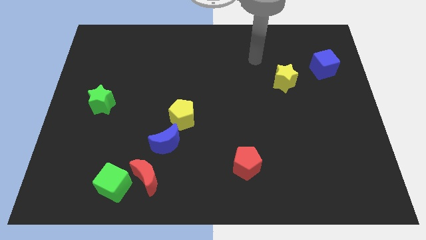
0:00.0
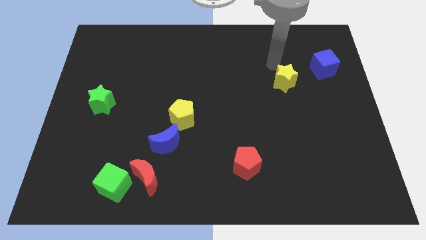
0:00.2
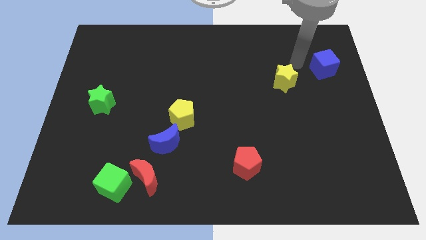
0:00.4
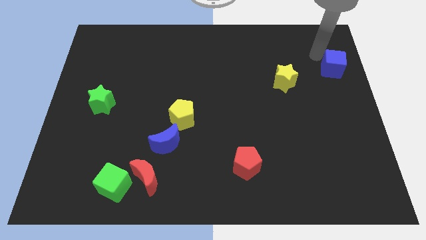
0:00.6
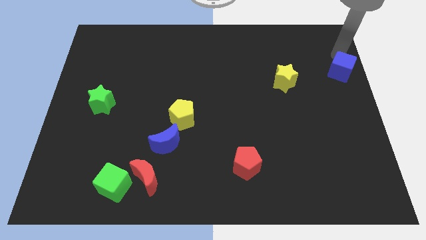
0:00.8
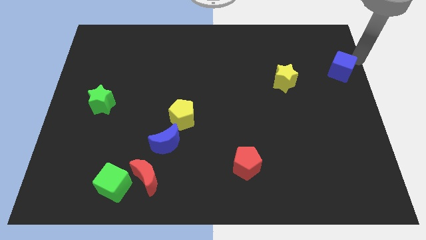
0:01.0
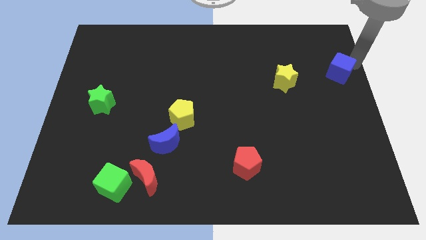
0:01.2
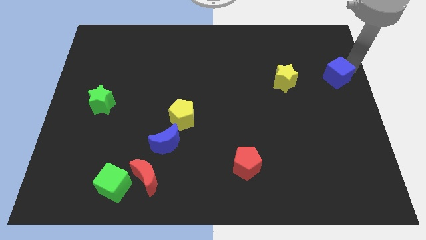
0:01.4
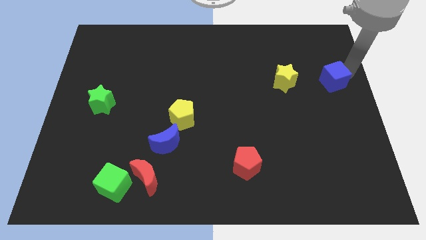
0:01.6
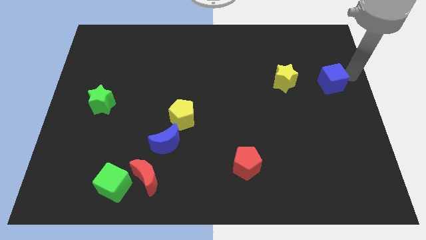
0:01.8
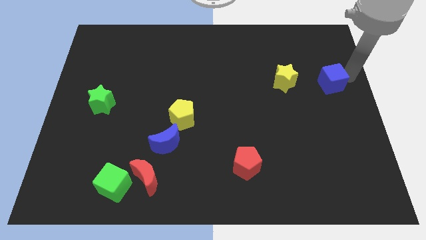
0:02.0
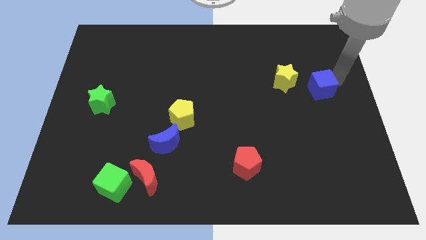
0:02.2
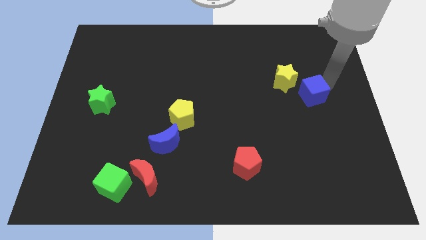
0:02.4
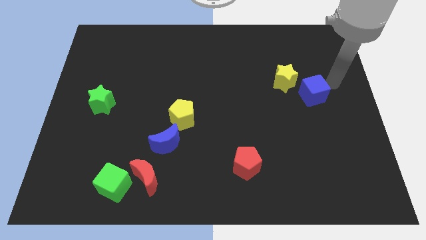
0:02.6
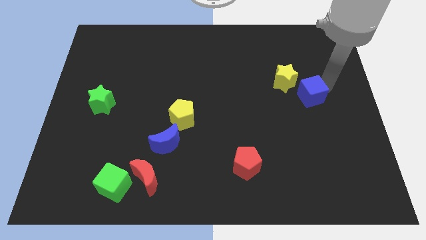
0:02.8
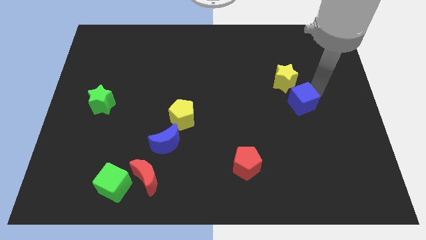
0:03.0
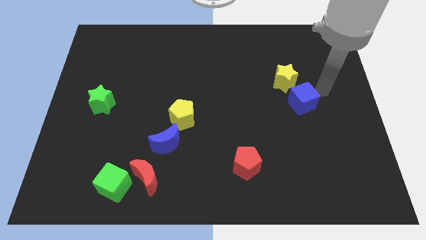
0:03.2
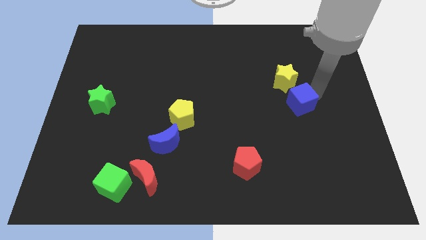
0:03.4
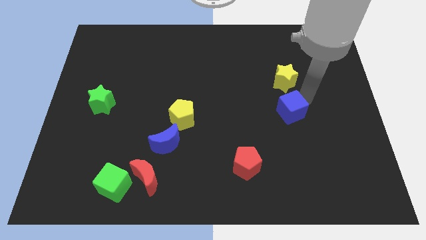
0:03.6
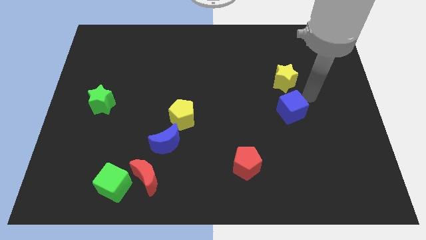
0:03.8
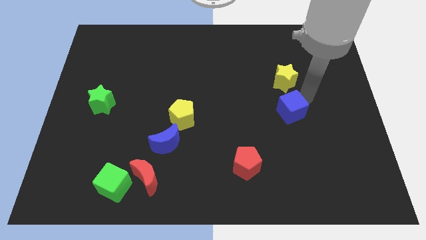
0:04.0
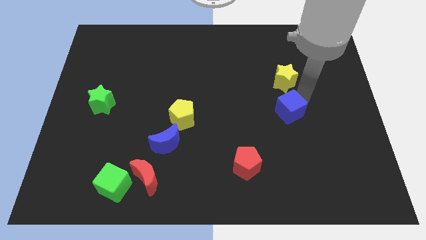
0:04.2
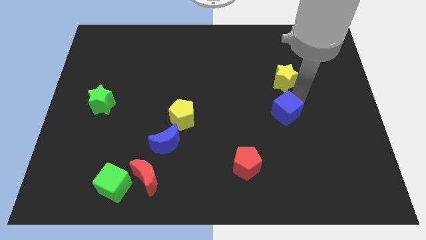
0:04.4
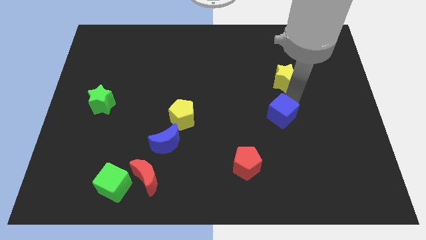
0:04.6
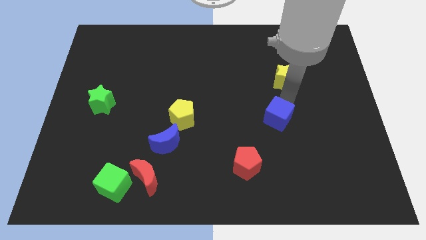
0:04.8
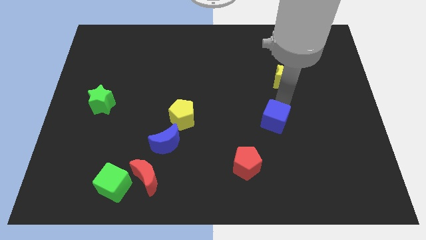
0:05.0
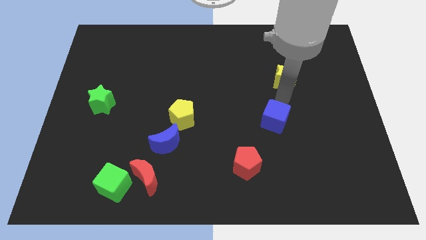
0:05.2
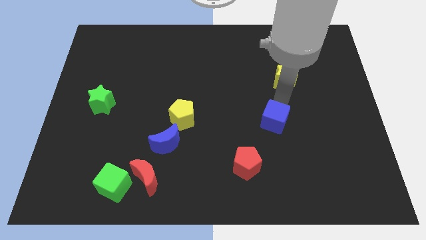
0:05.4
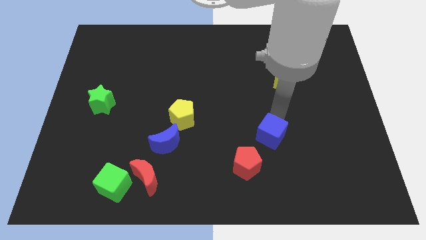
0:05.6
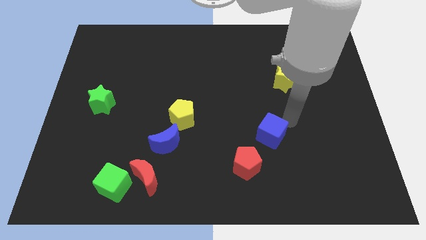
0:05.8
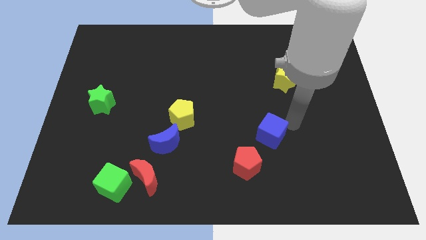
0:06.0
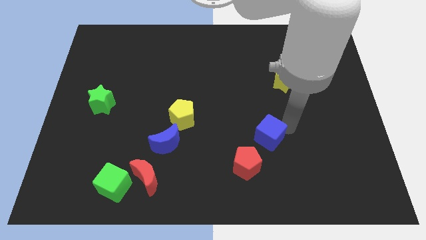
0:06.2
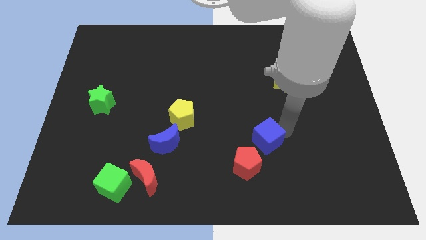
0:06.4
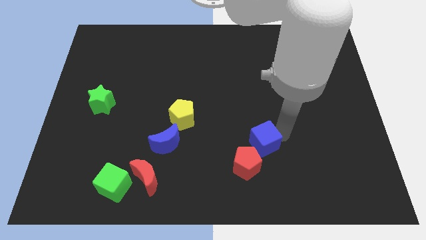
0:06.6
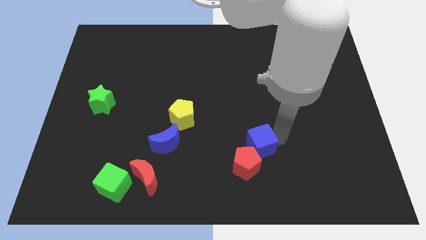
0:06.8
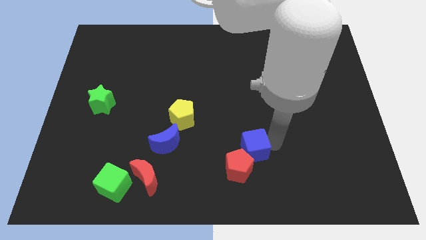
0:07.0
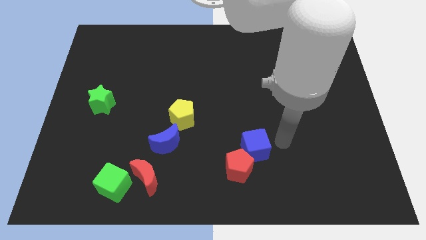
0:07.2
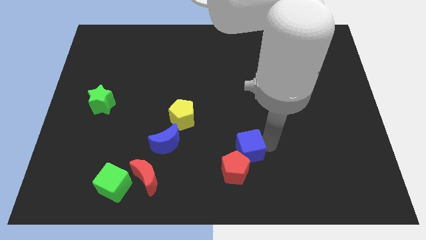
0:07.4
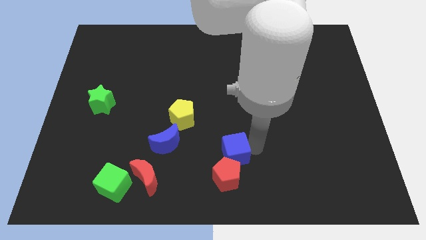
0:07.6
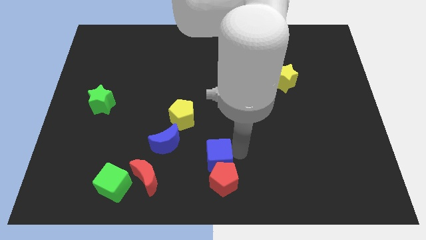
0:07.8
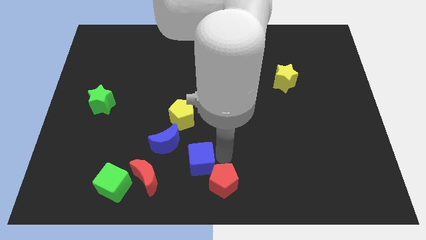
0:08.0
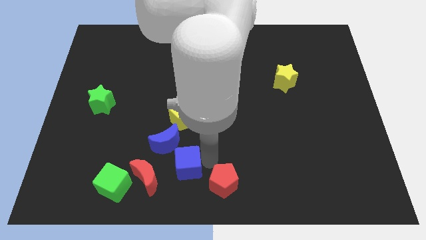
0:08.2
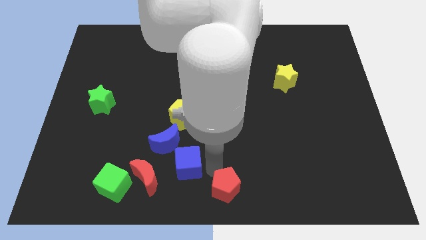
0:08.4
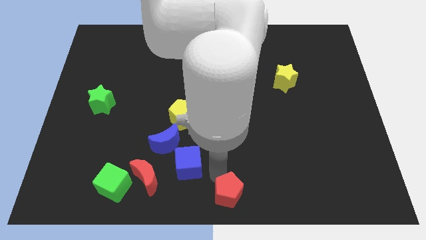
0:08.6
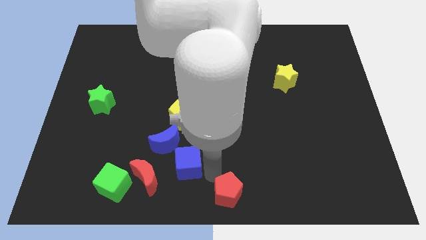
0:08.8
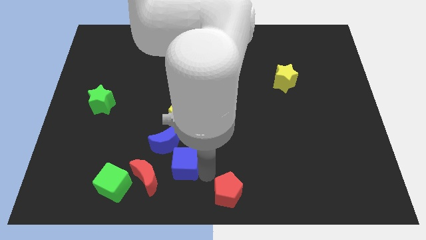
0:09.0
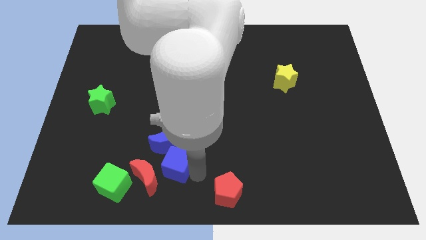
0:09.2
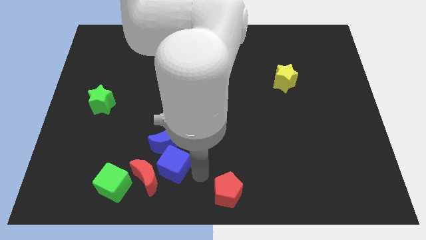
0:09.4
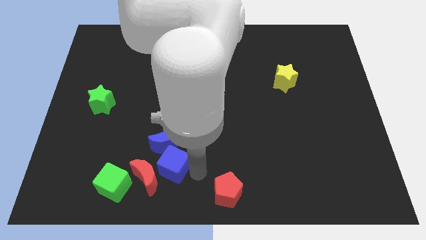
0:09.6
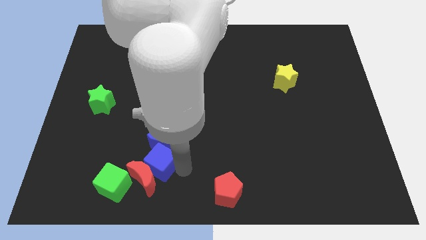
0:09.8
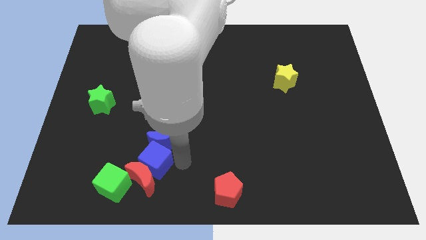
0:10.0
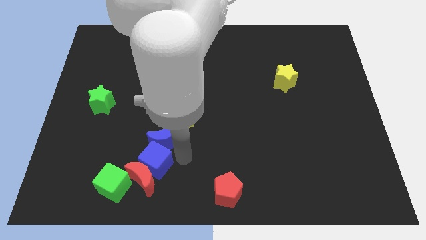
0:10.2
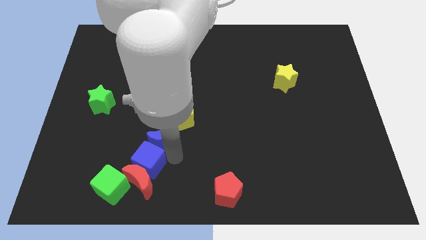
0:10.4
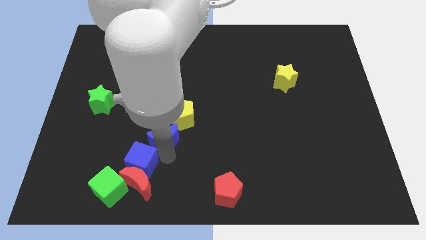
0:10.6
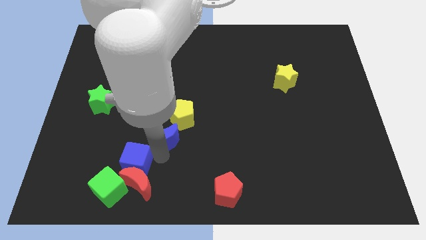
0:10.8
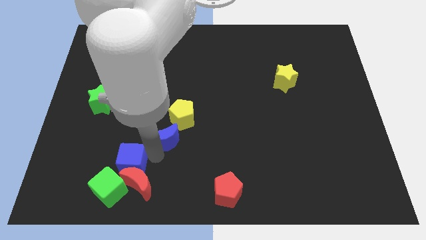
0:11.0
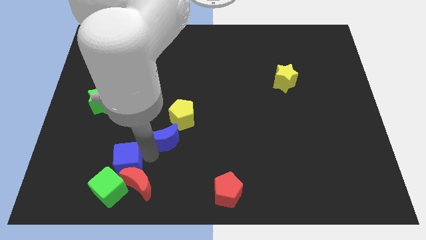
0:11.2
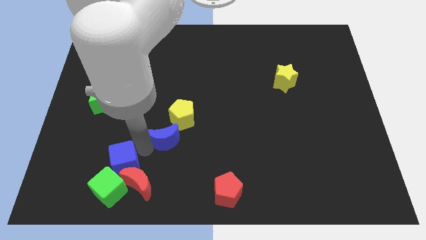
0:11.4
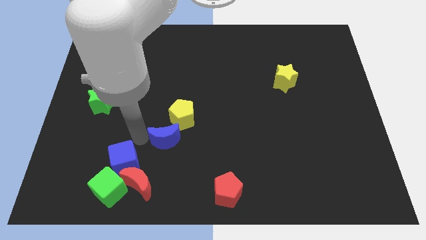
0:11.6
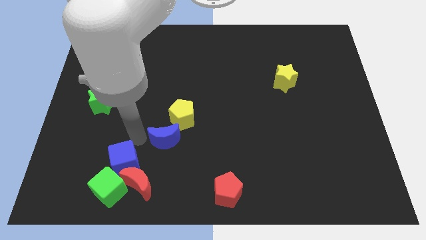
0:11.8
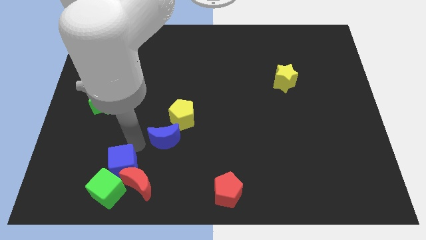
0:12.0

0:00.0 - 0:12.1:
move the blue cube next to the green cube
